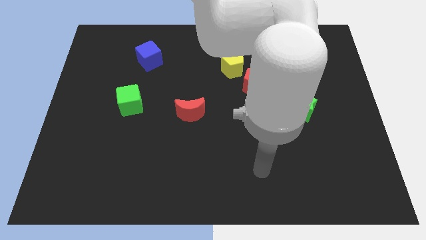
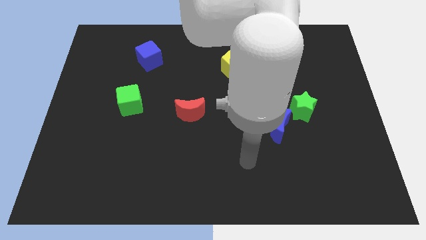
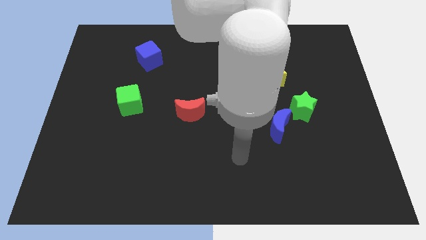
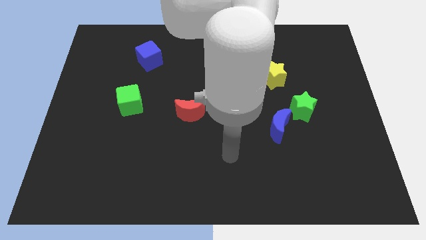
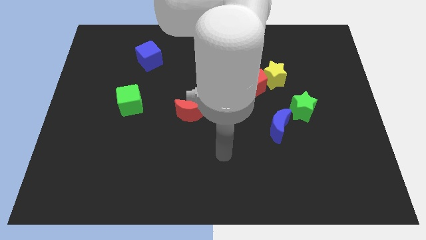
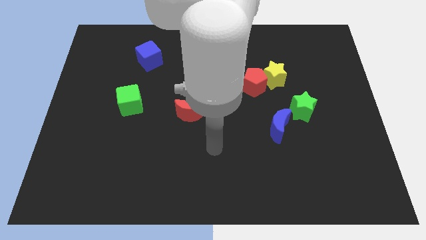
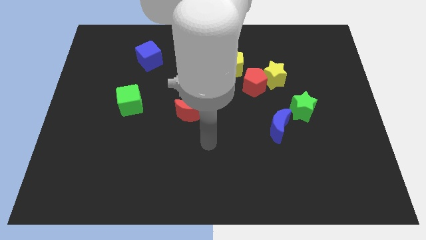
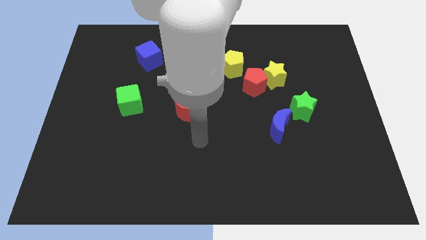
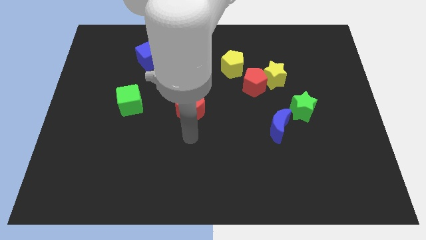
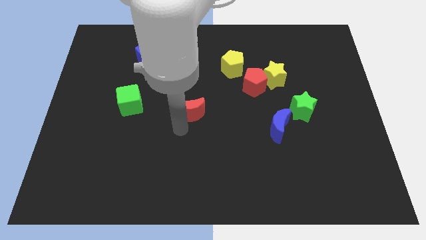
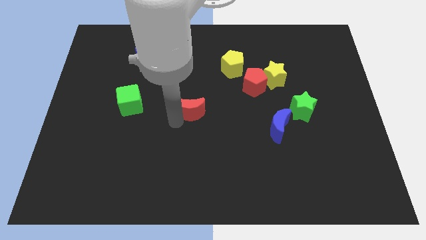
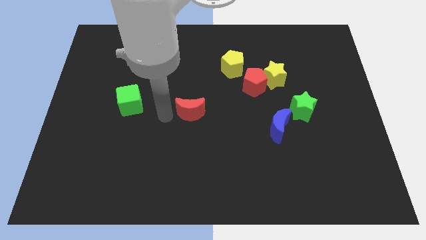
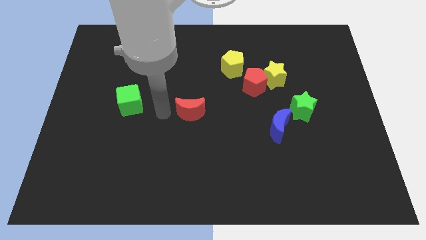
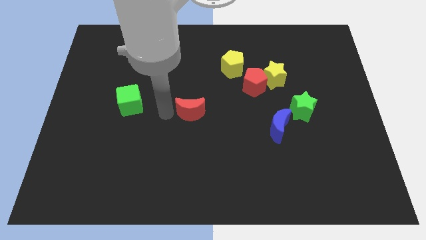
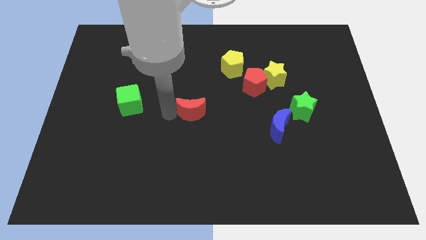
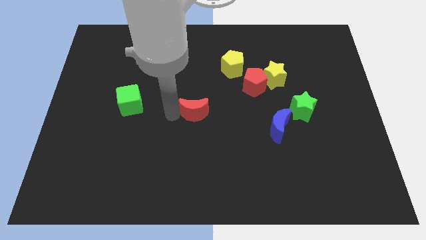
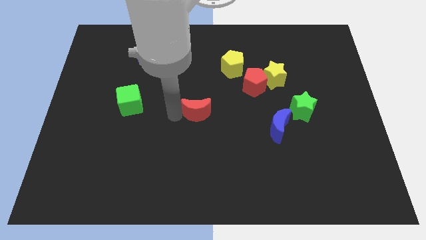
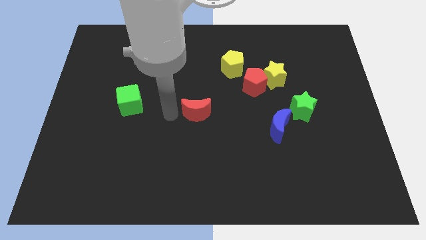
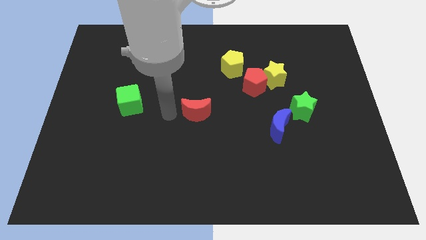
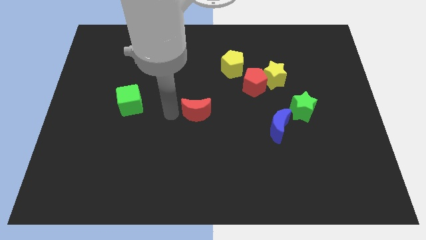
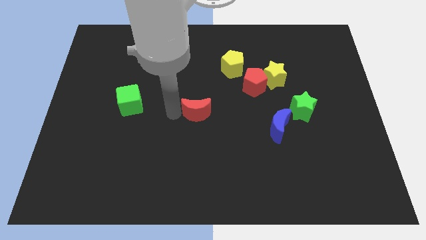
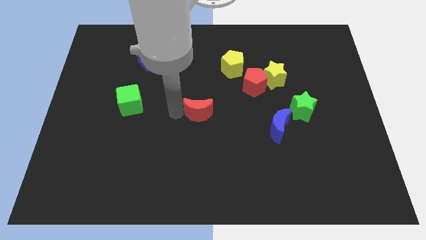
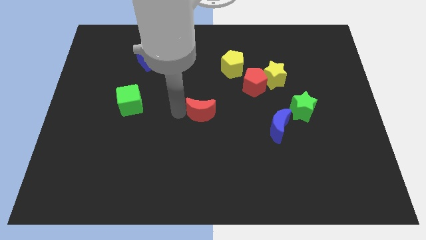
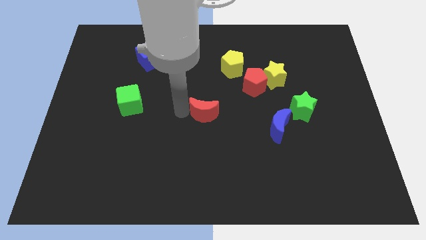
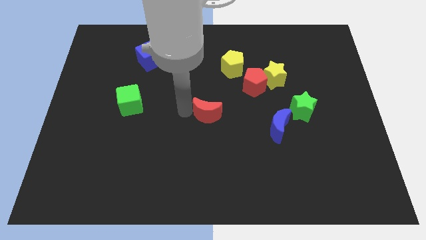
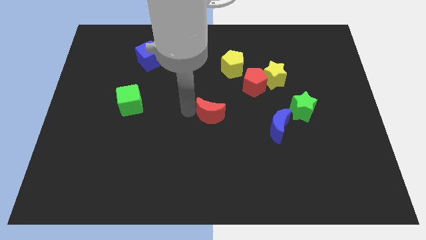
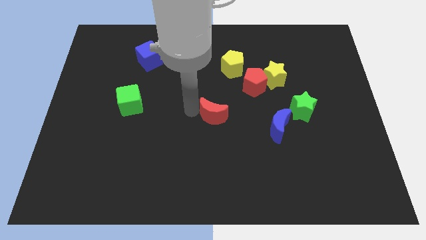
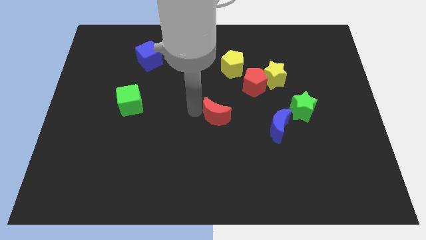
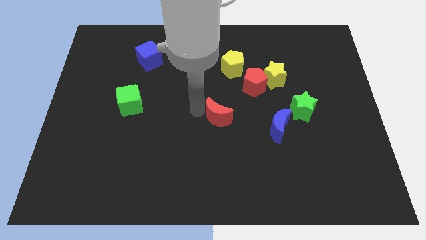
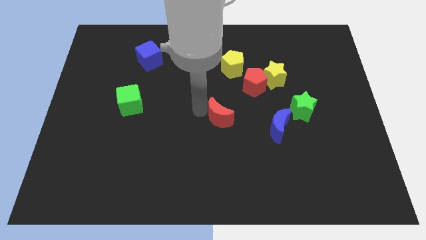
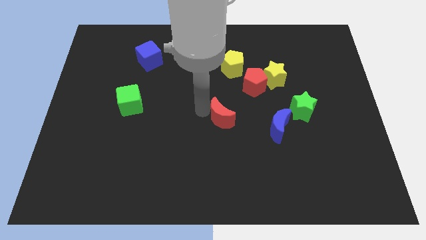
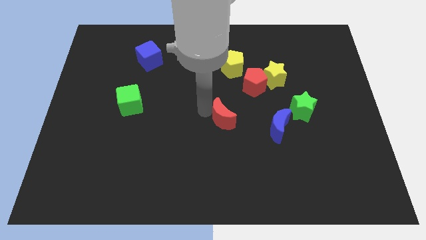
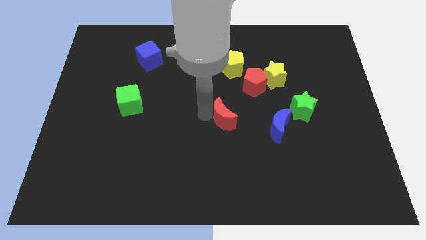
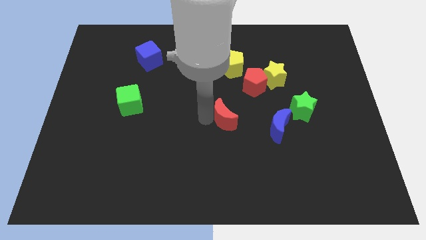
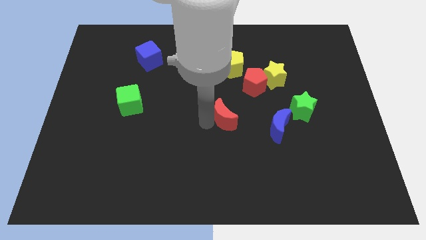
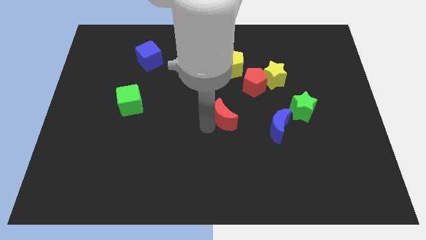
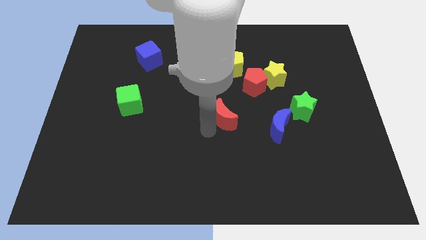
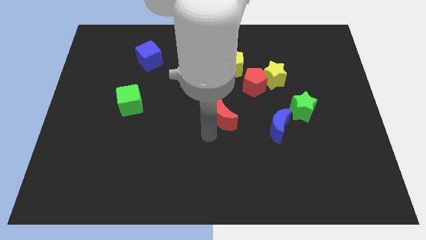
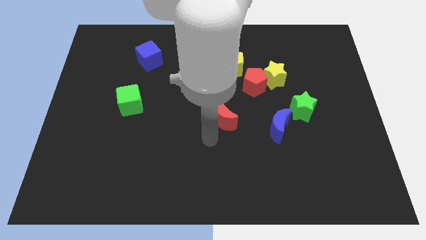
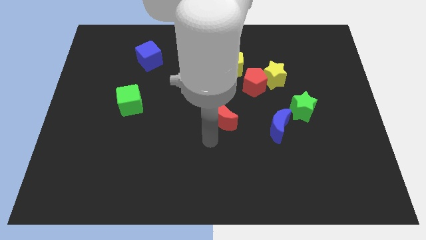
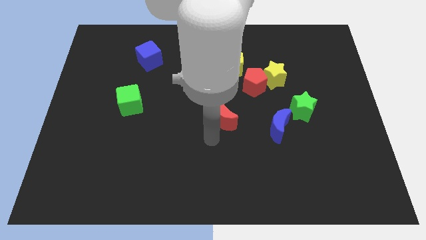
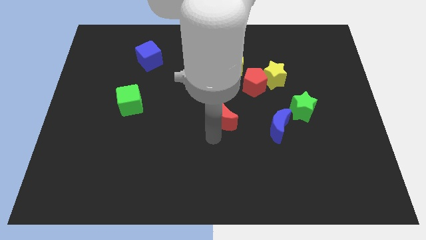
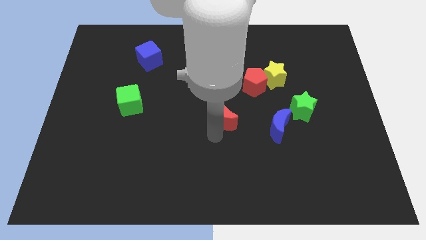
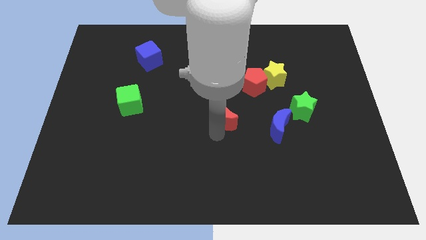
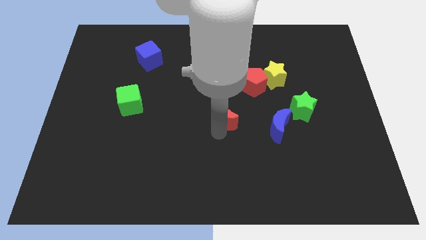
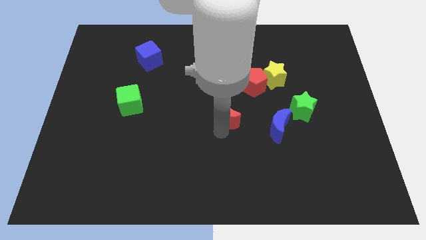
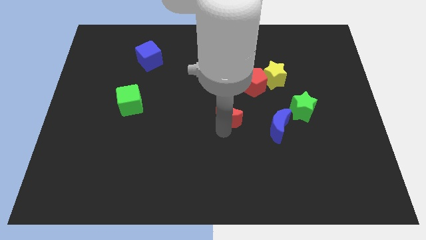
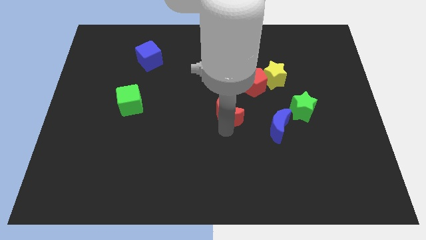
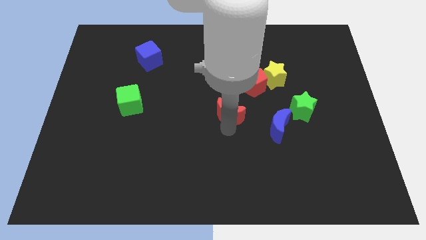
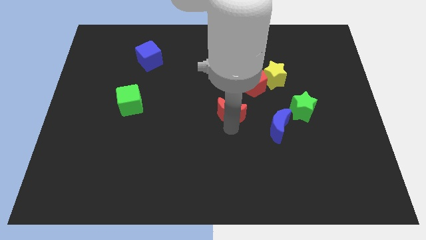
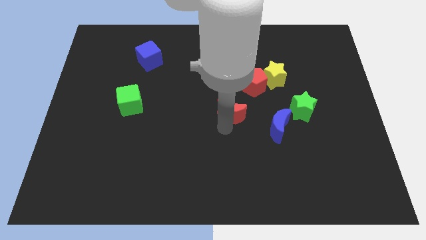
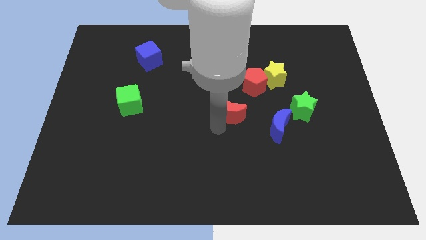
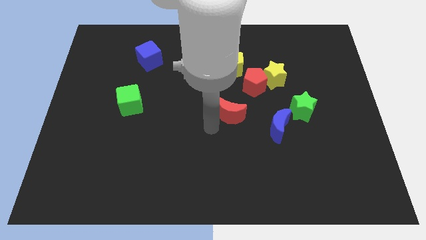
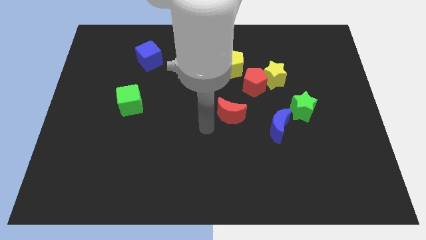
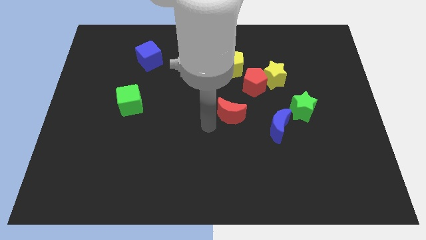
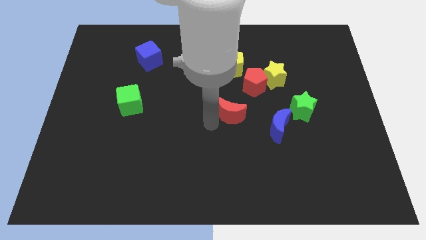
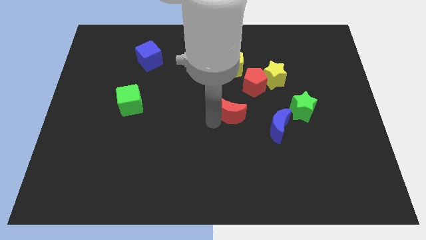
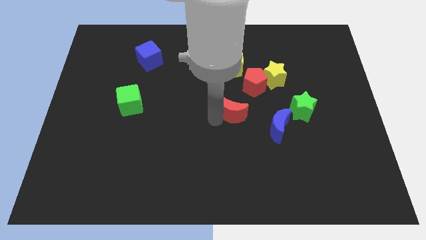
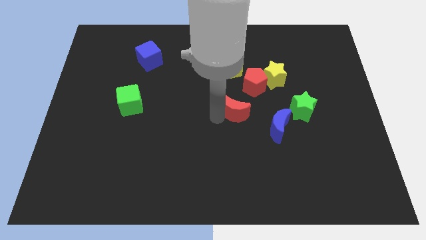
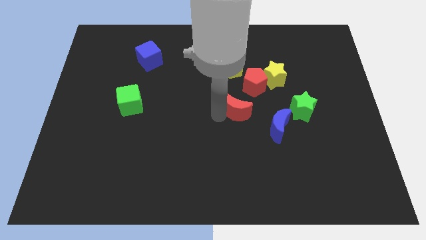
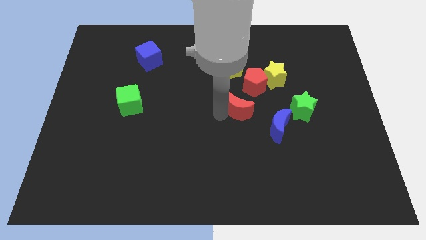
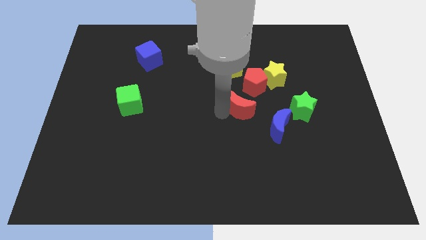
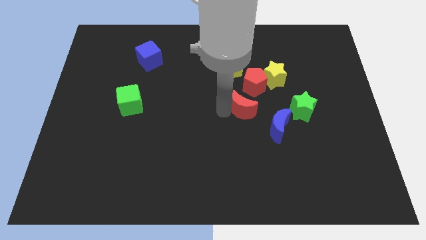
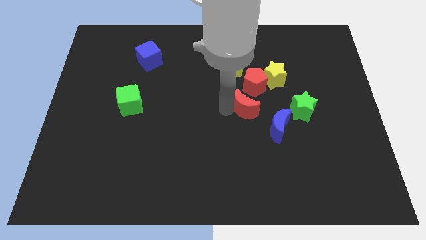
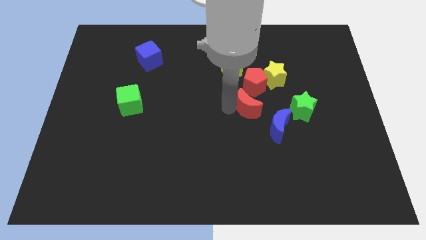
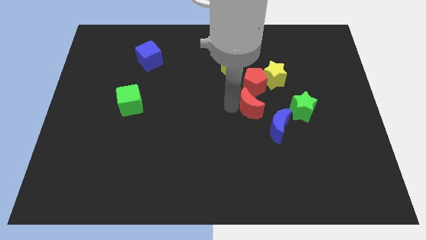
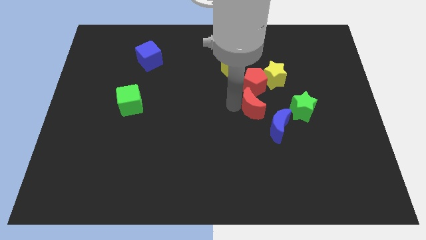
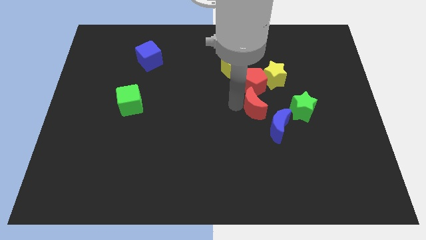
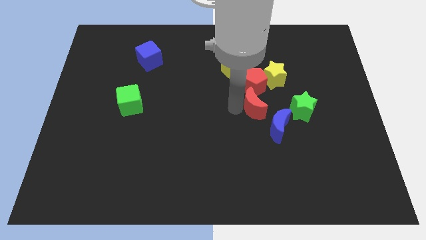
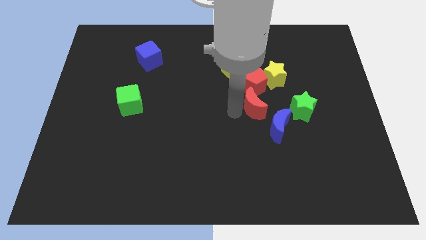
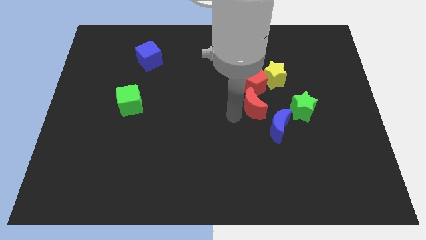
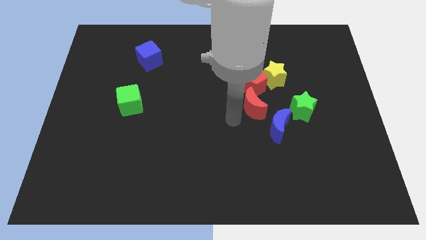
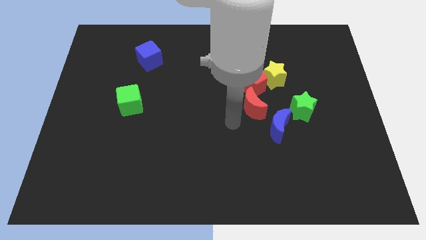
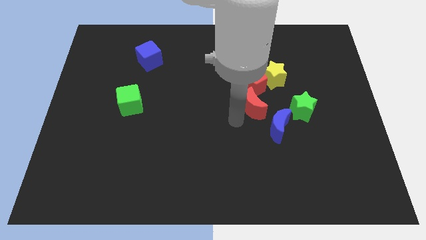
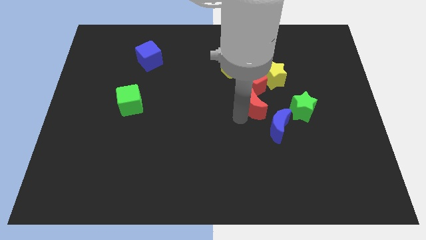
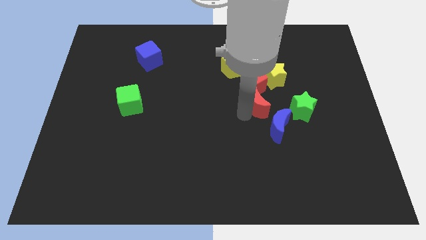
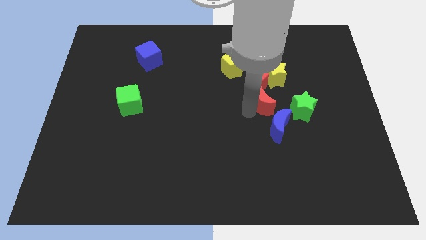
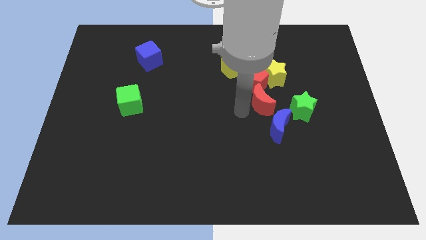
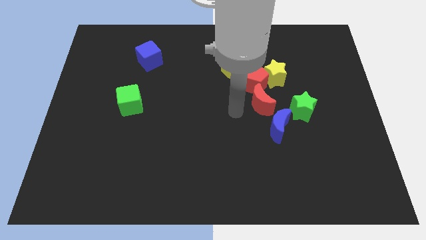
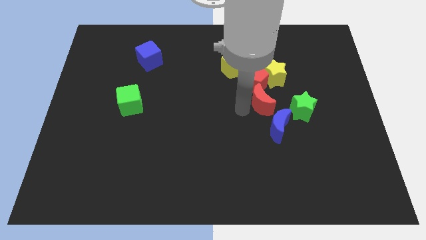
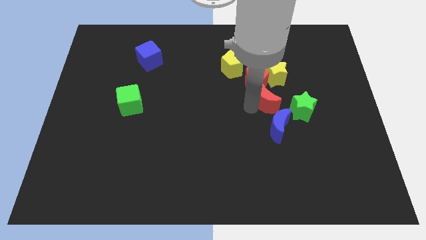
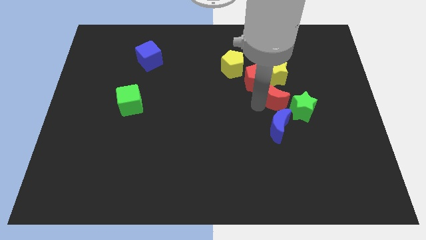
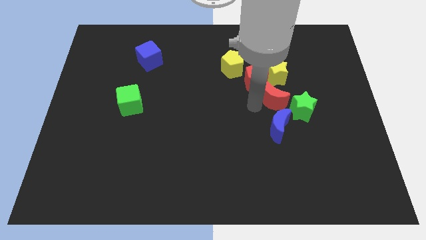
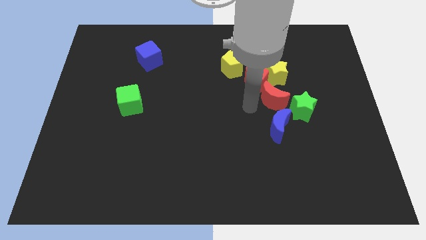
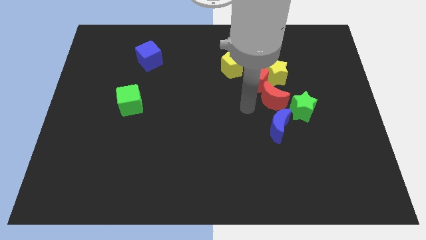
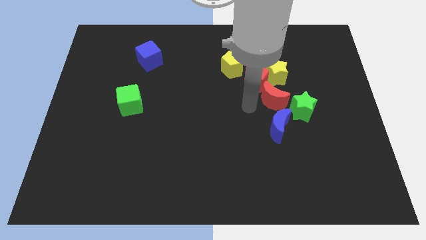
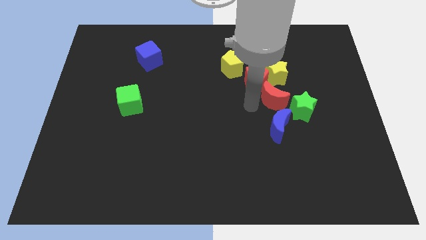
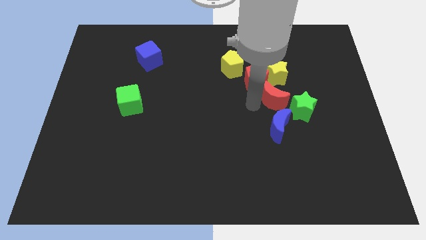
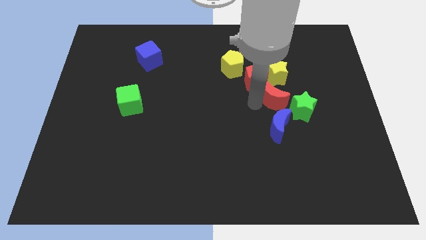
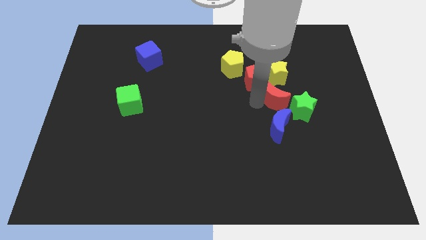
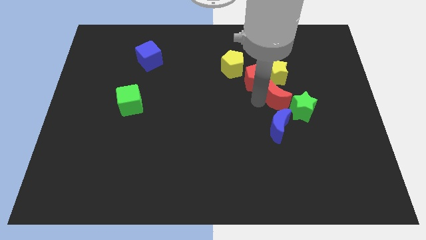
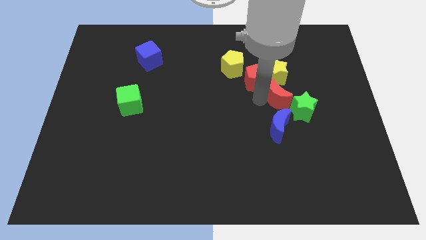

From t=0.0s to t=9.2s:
slide the red moon to the right
